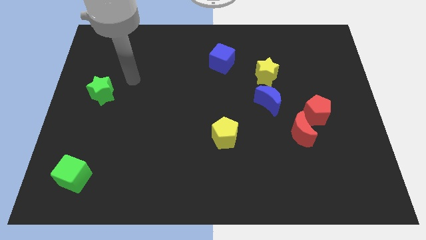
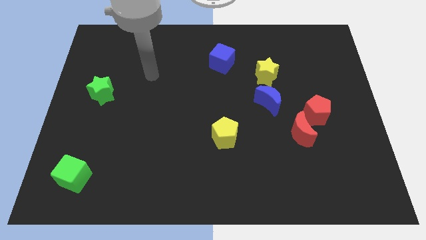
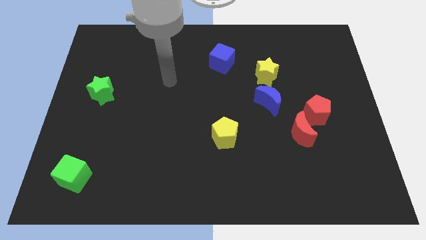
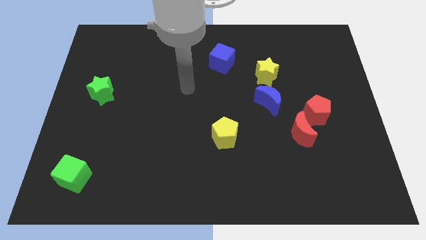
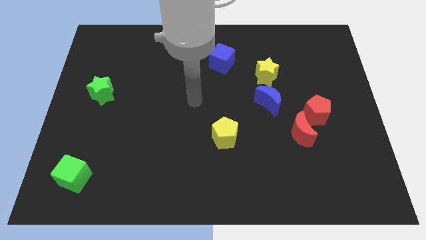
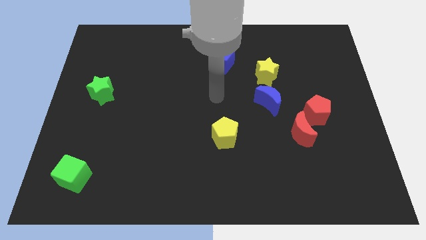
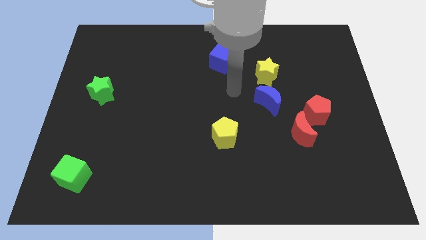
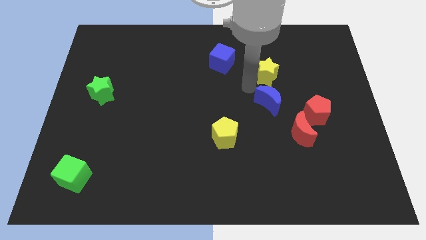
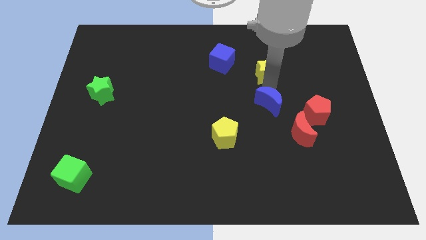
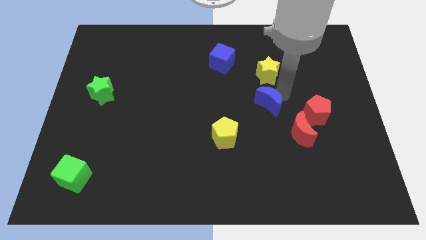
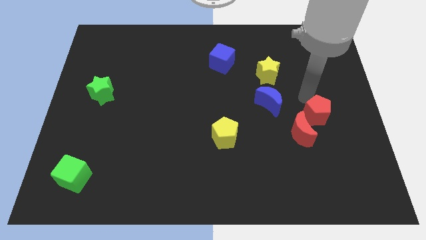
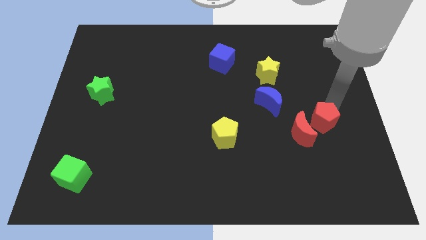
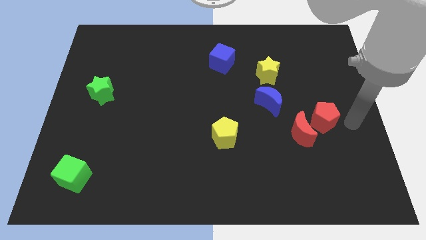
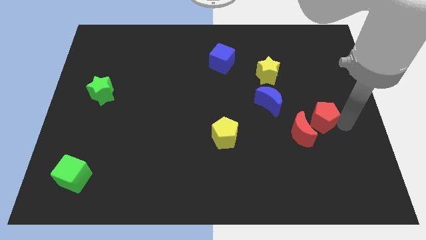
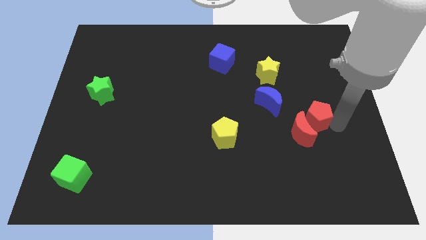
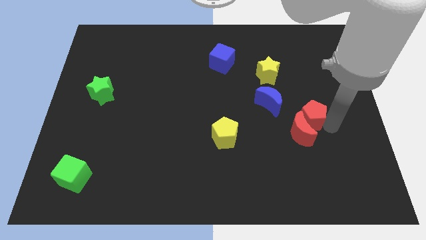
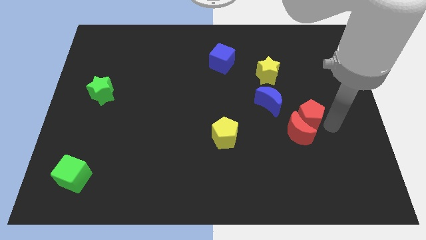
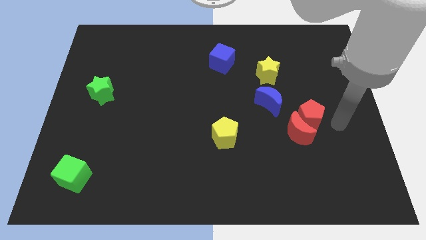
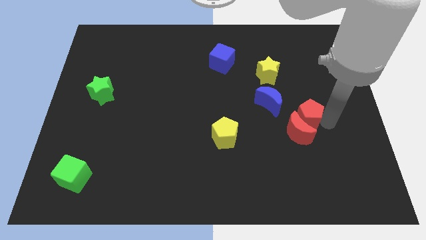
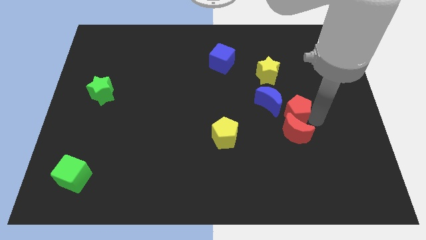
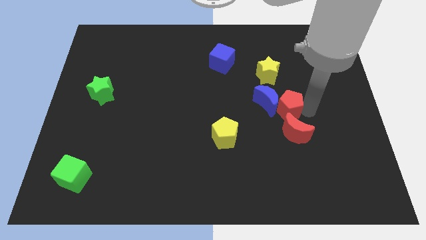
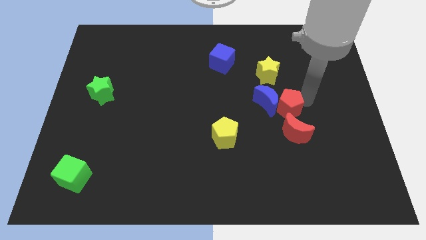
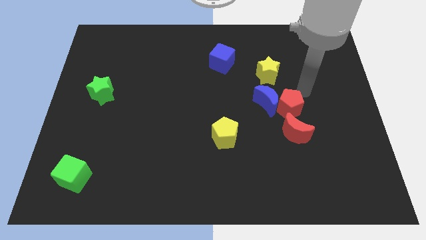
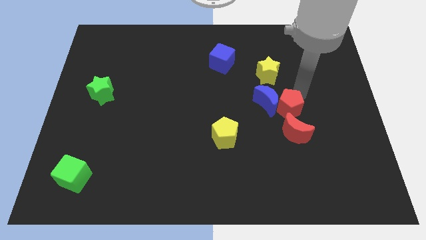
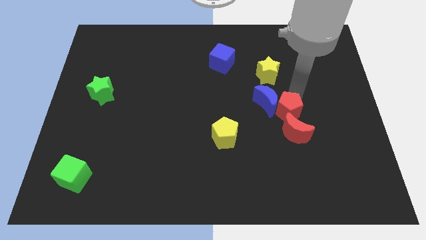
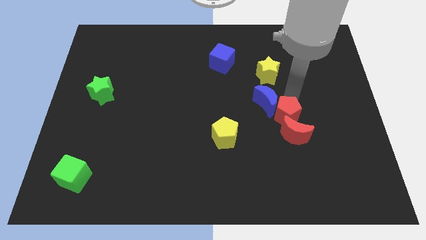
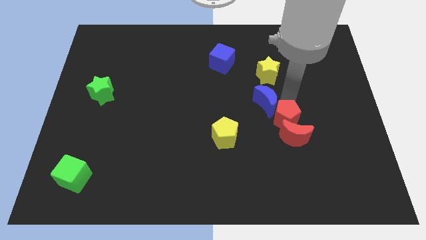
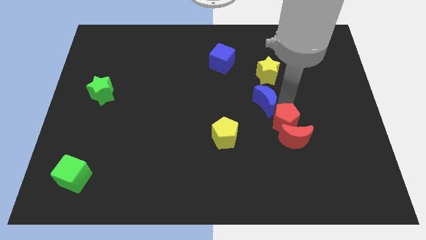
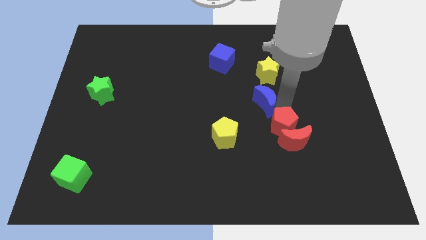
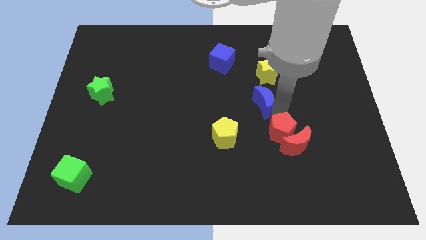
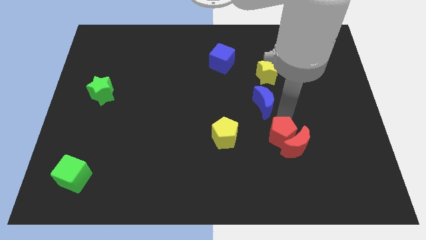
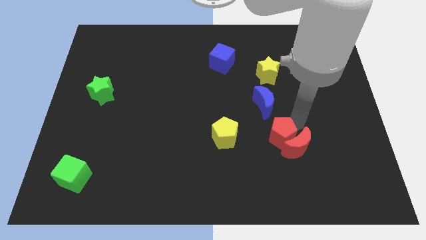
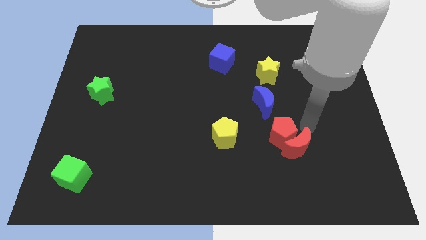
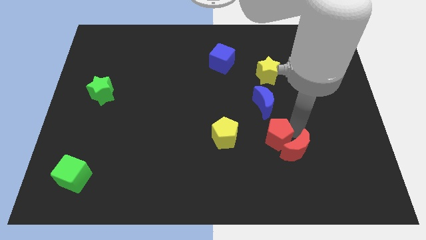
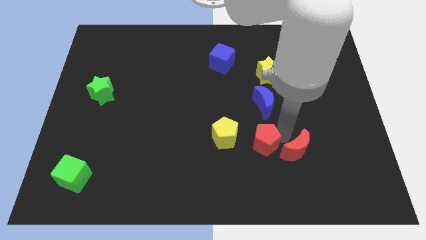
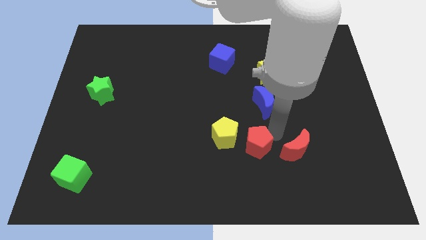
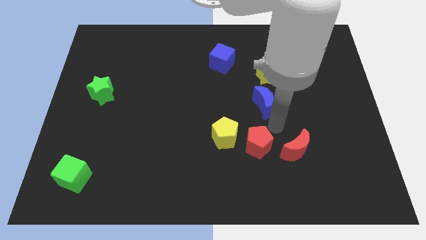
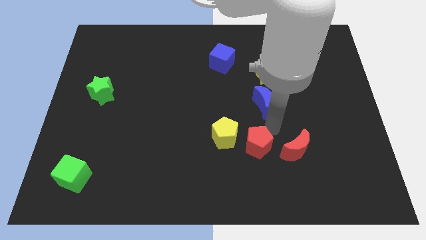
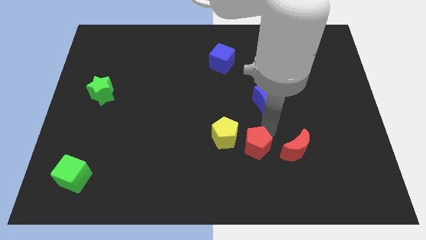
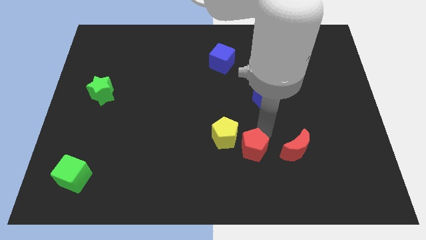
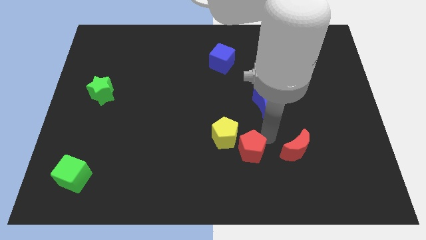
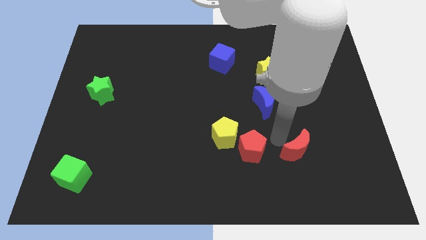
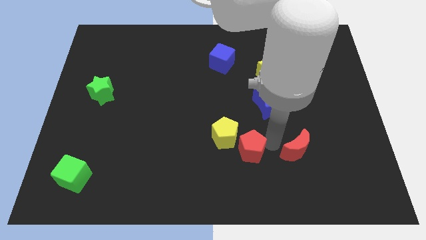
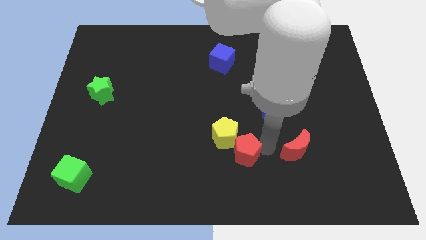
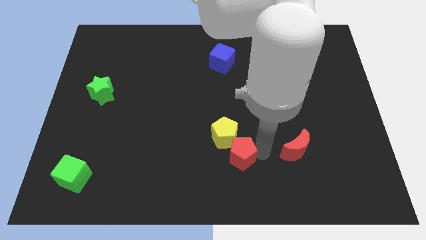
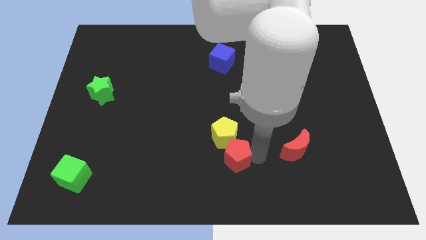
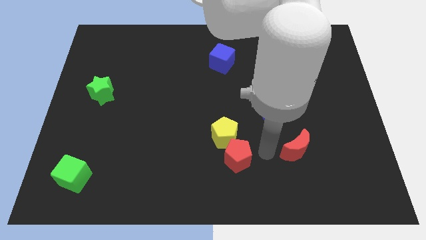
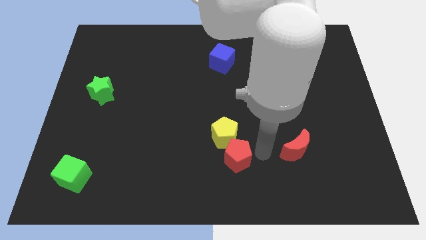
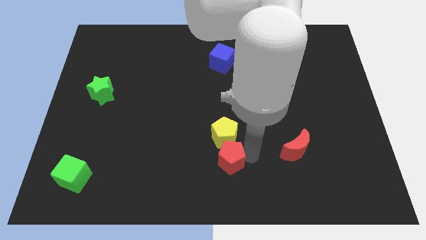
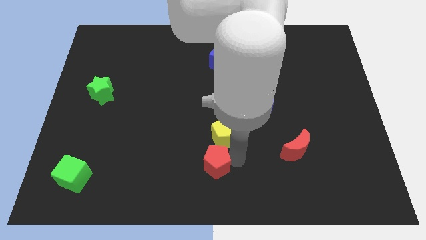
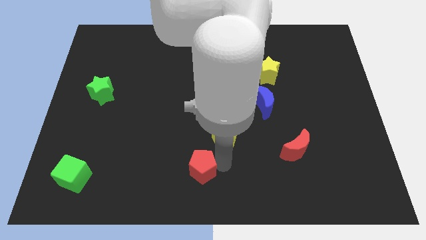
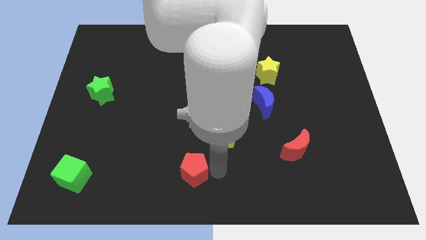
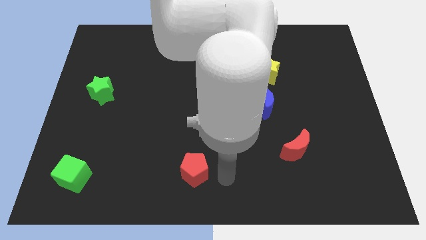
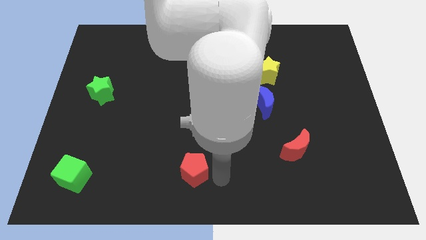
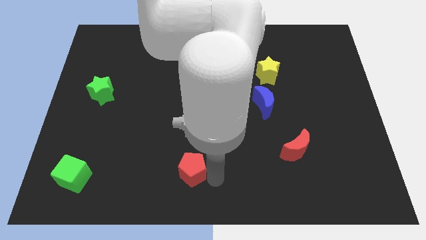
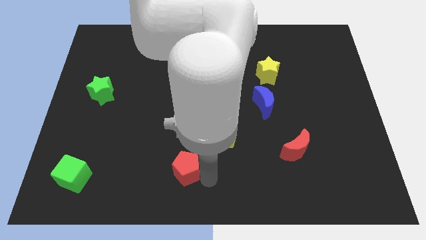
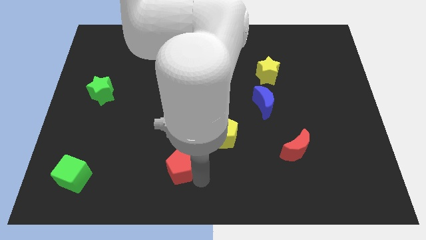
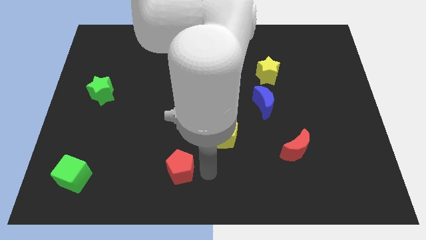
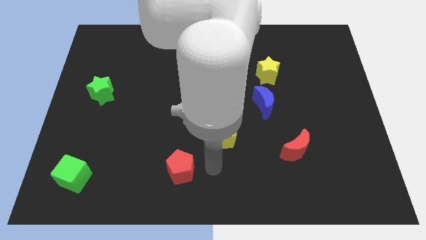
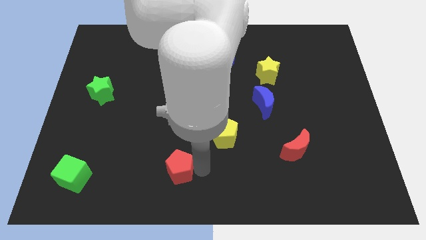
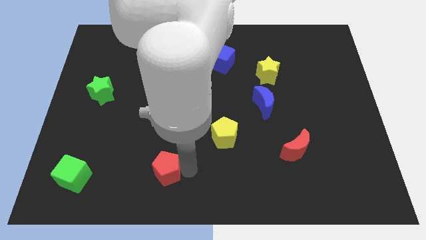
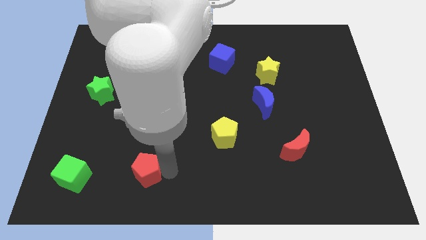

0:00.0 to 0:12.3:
push the red pentagon just right of the green cube
